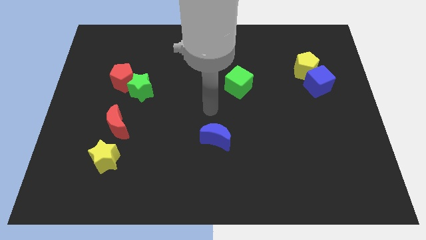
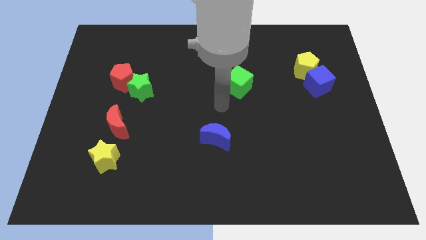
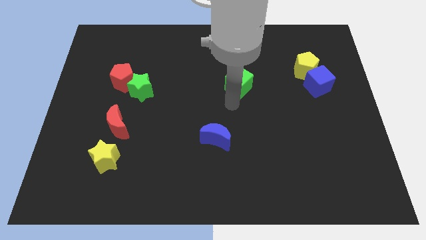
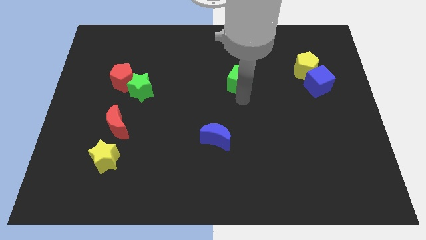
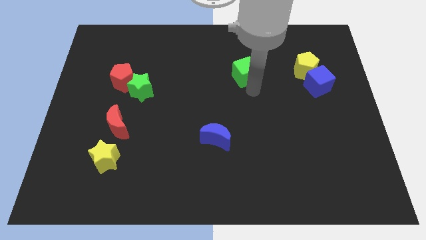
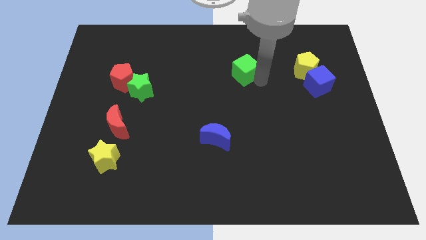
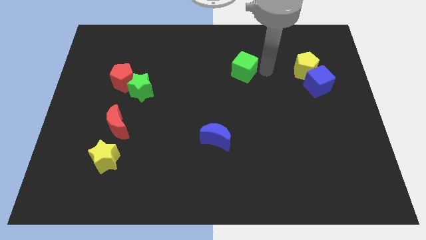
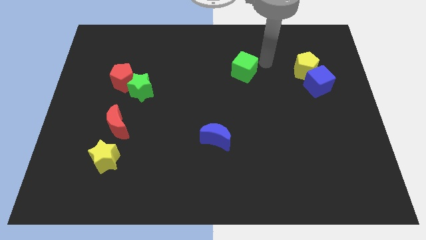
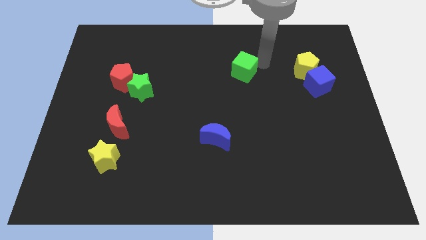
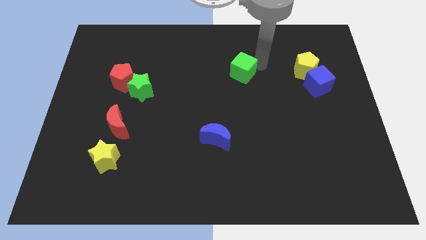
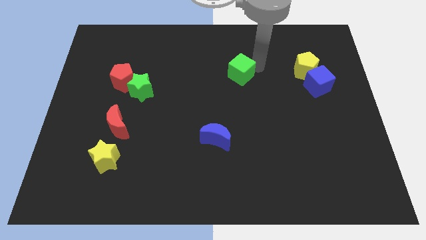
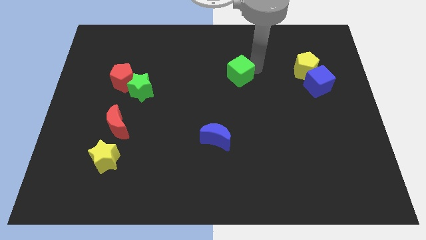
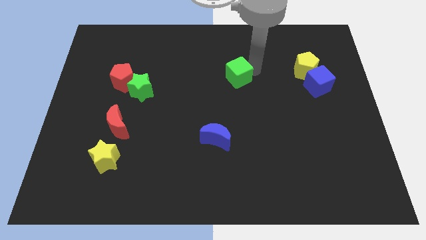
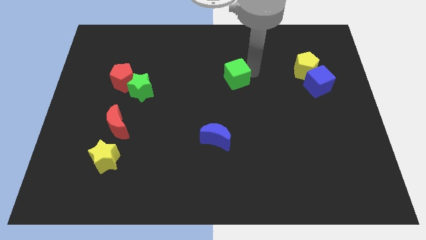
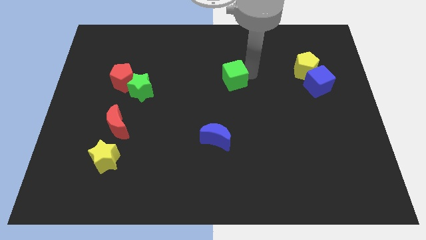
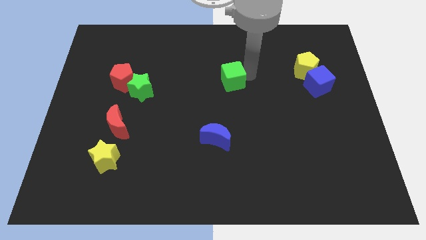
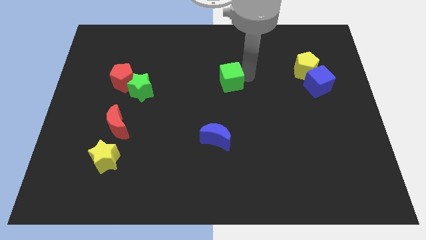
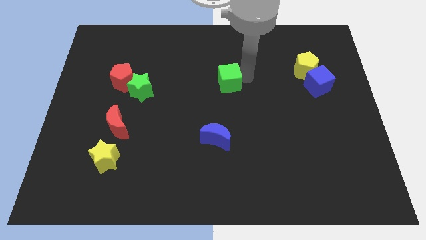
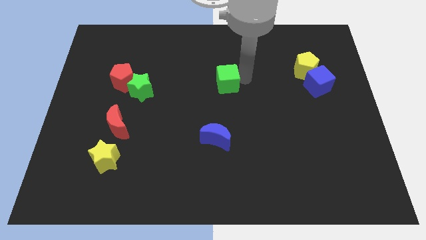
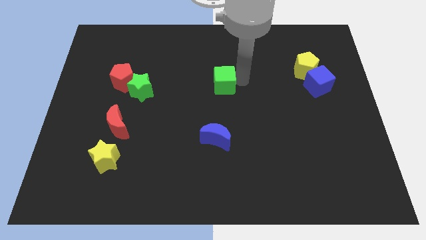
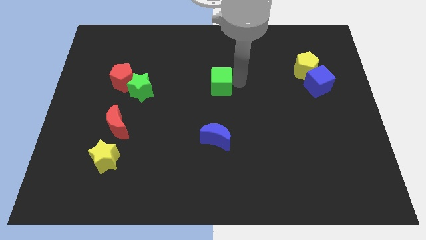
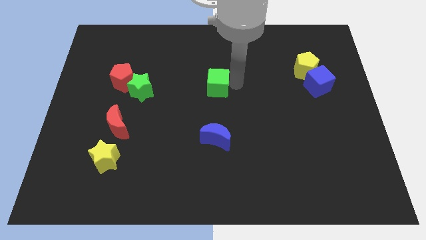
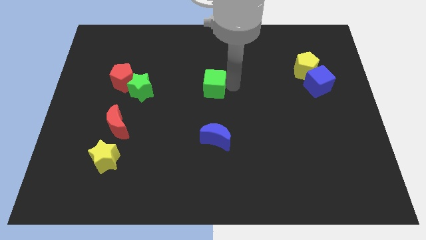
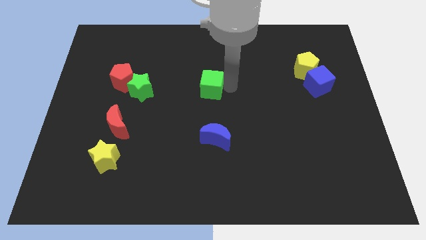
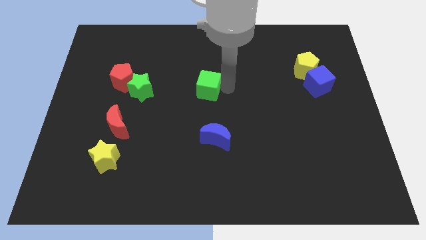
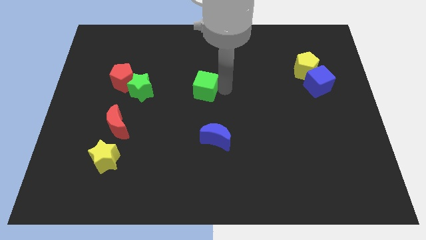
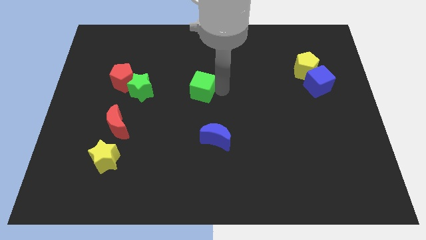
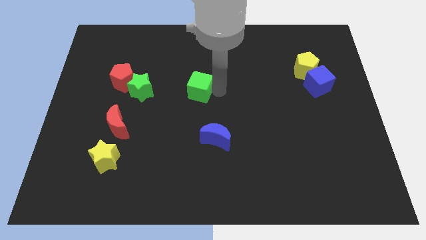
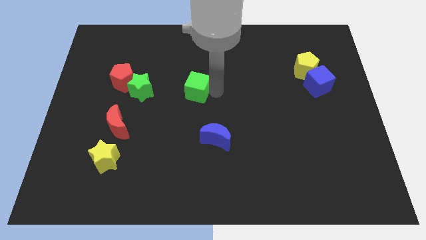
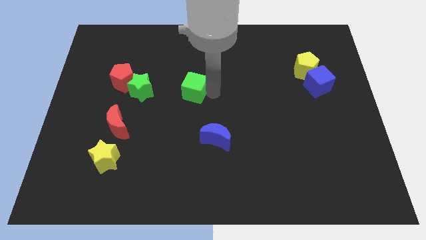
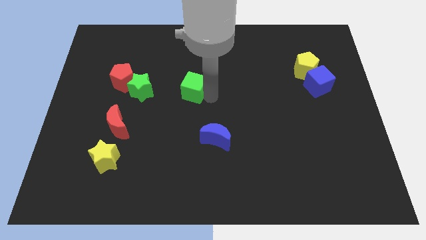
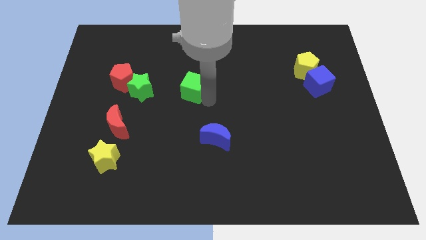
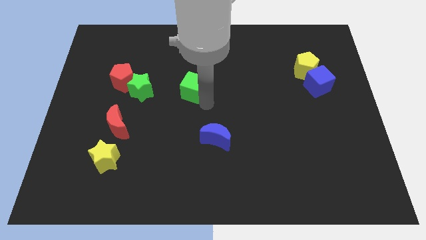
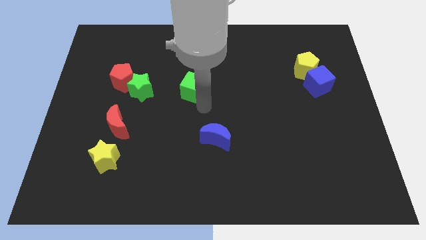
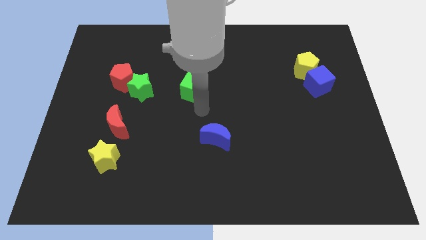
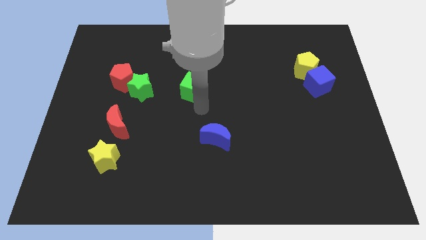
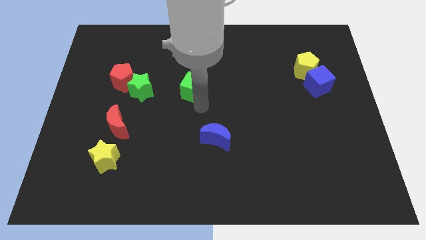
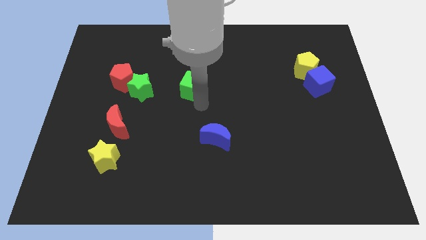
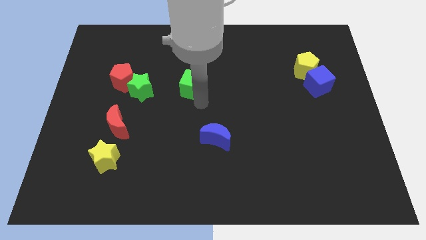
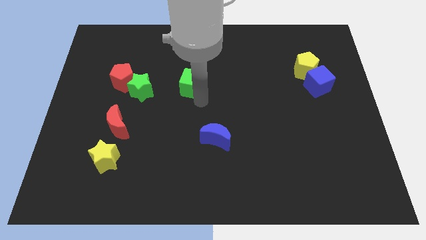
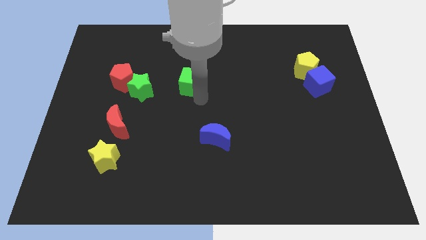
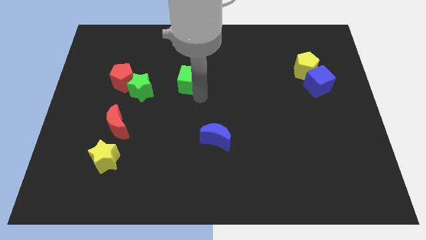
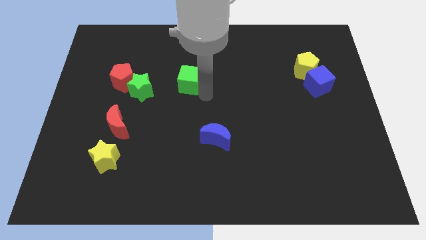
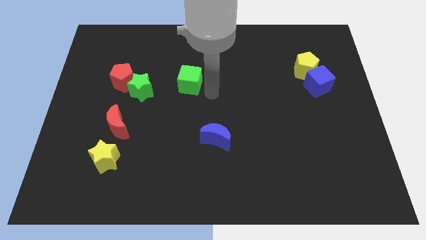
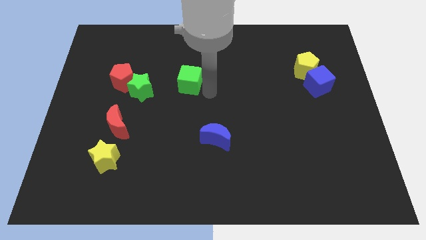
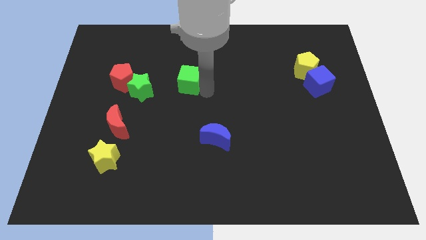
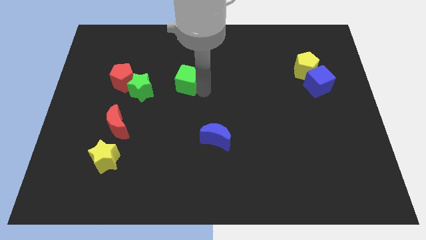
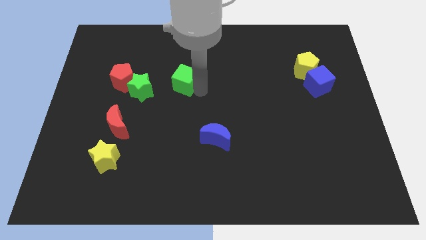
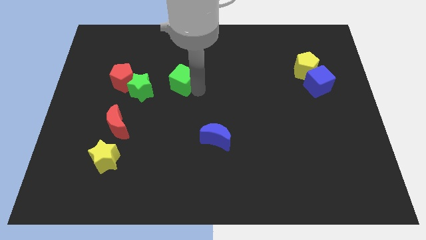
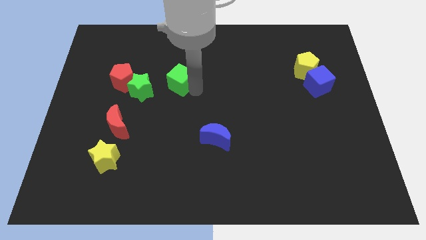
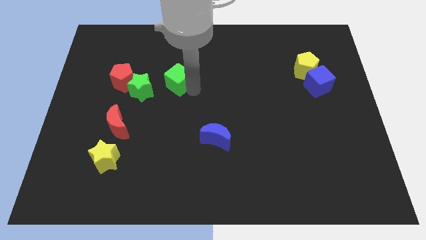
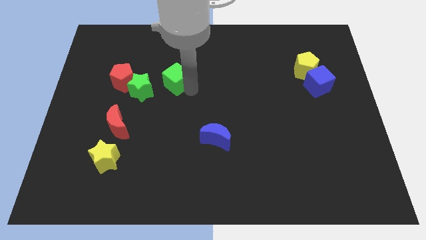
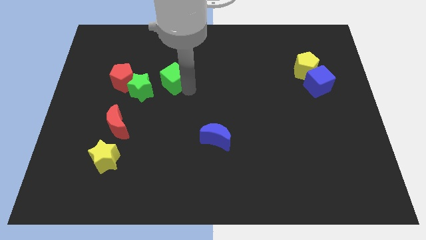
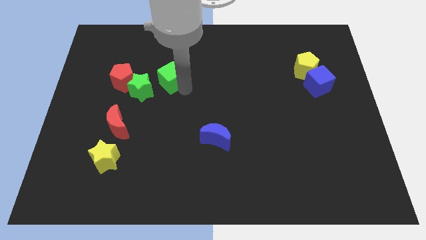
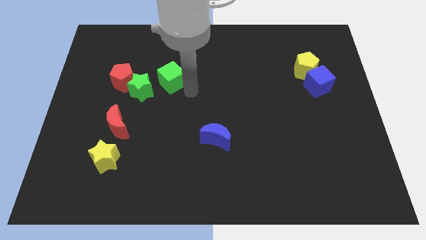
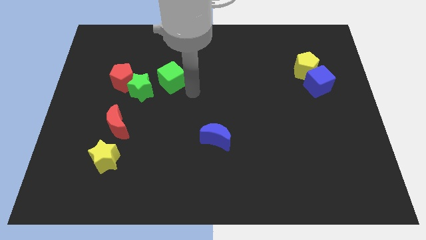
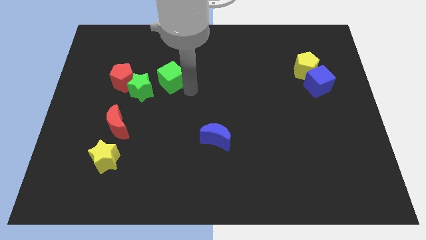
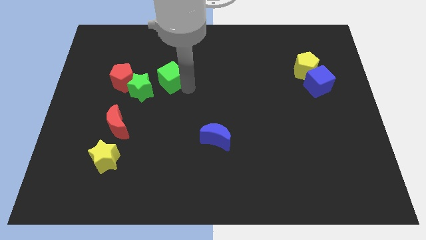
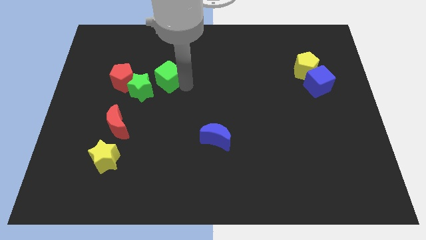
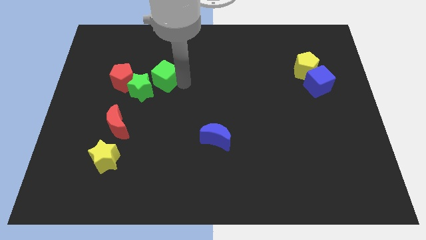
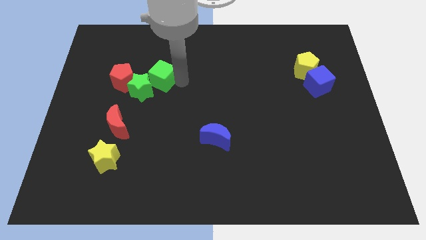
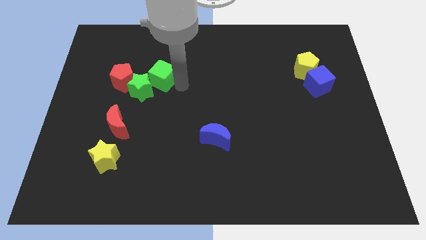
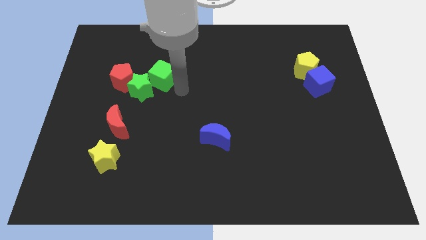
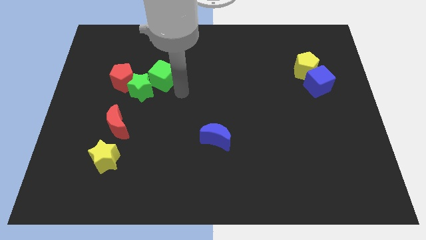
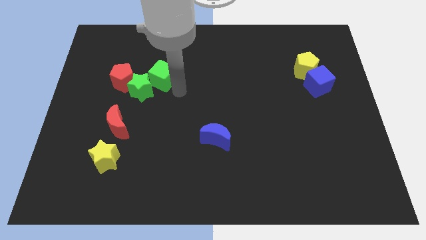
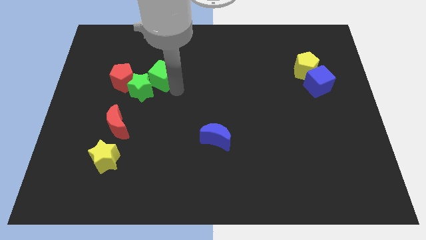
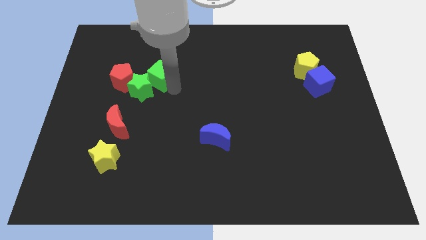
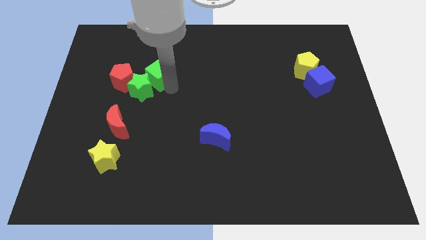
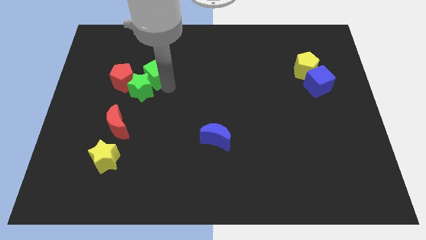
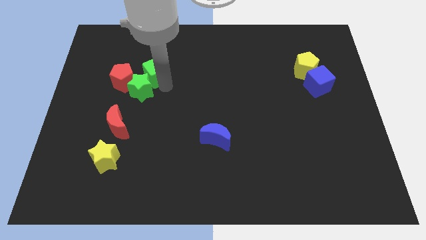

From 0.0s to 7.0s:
move the green cube diagonally up and to the right of the red pentagon
